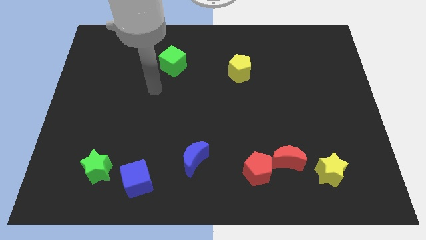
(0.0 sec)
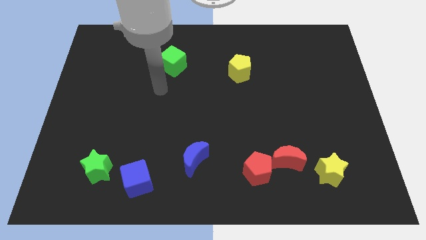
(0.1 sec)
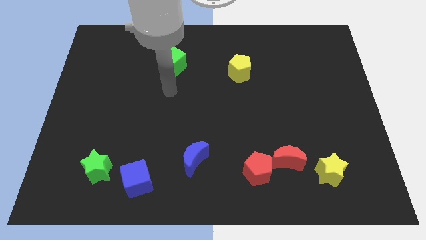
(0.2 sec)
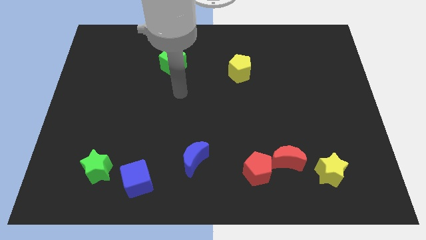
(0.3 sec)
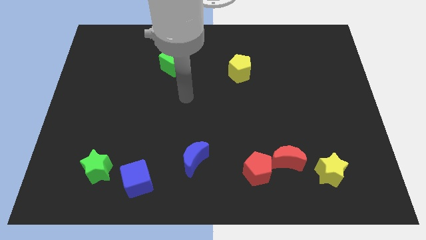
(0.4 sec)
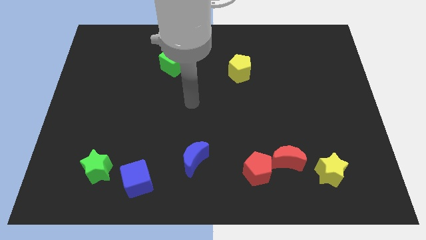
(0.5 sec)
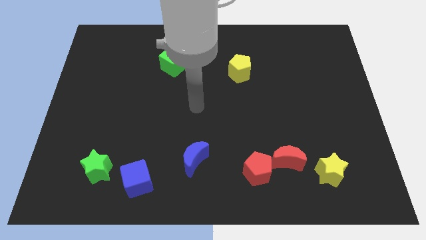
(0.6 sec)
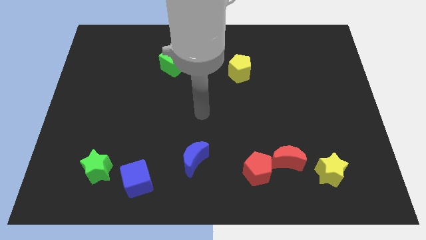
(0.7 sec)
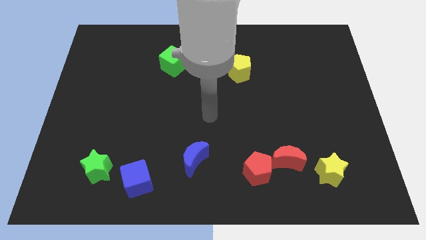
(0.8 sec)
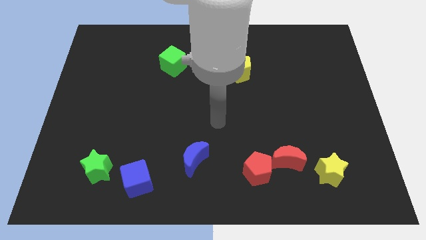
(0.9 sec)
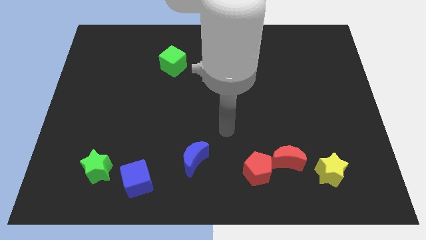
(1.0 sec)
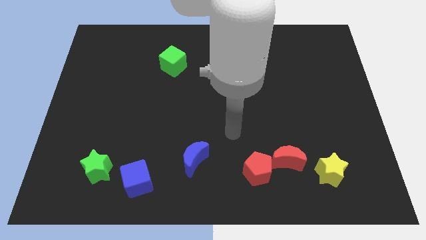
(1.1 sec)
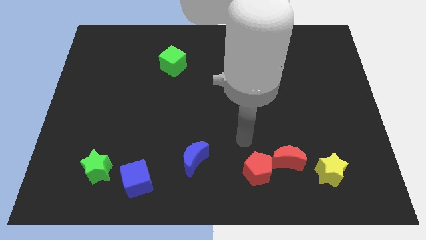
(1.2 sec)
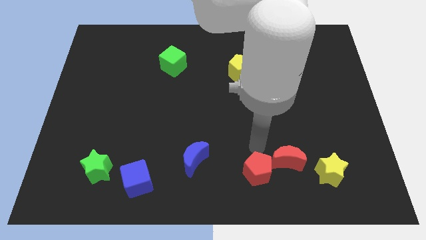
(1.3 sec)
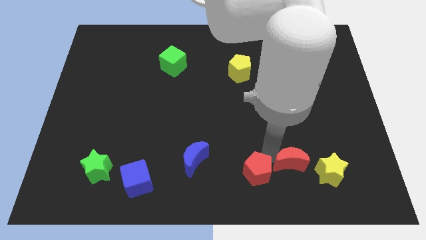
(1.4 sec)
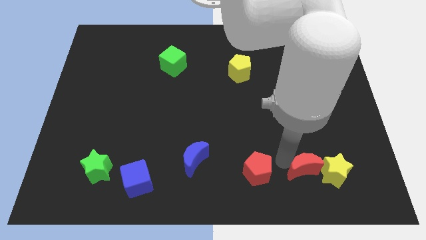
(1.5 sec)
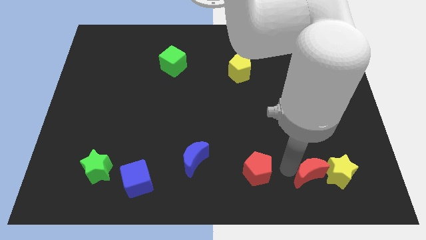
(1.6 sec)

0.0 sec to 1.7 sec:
move the red pentagon away from the red moon

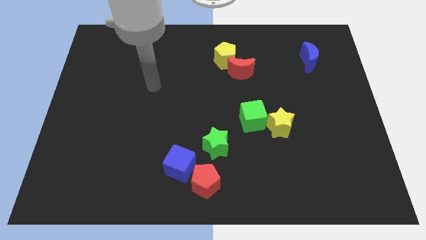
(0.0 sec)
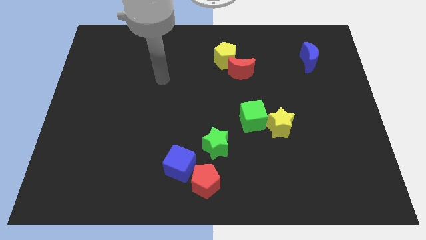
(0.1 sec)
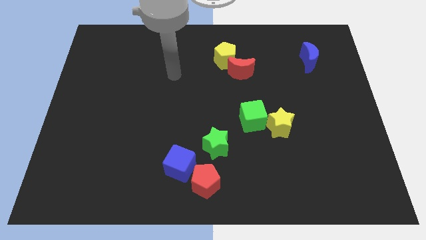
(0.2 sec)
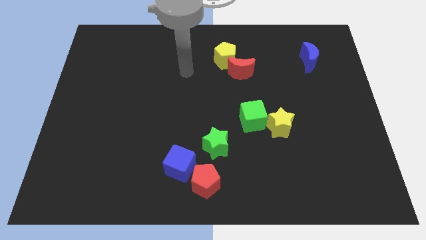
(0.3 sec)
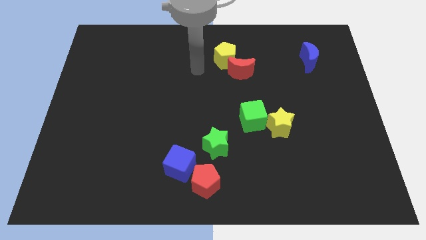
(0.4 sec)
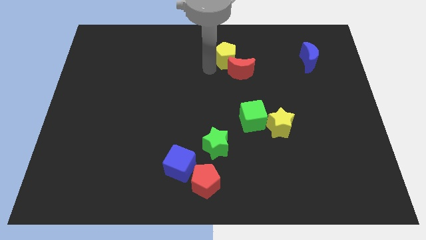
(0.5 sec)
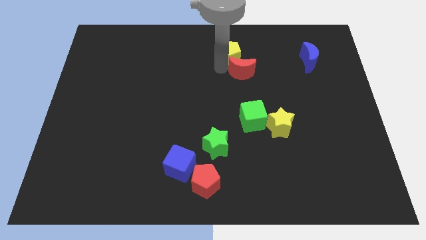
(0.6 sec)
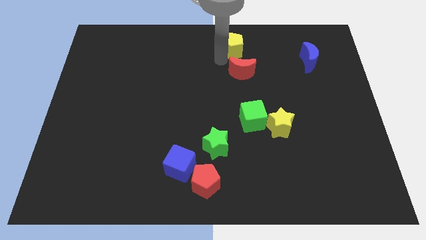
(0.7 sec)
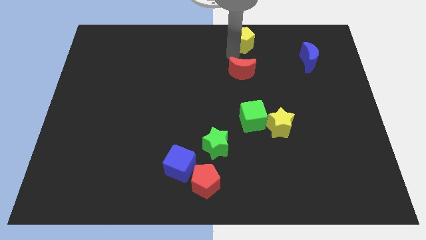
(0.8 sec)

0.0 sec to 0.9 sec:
separate the red moon from the yellow pentagon

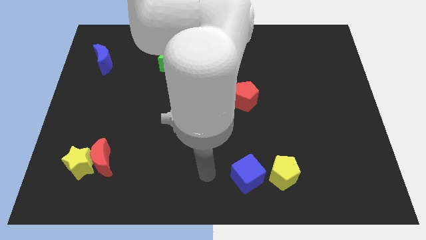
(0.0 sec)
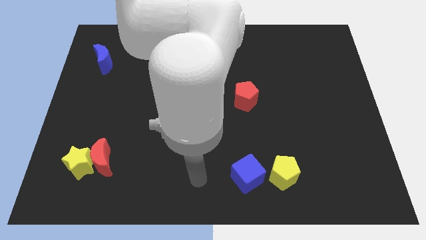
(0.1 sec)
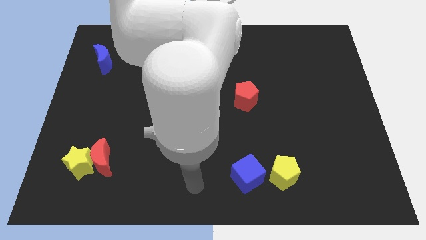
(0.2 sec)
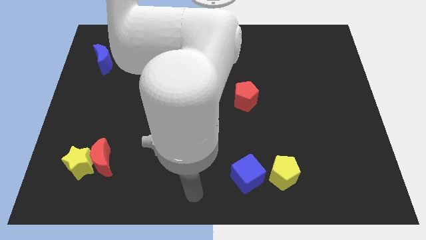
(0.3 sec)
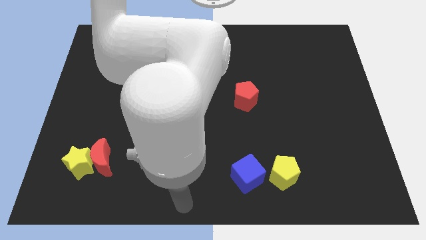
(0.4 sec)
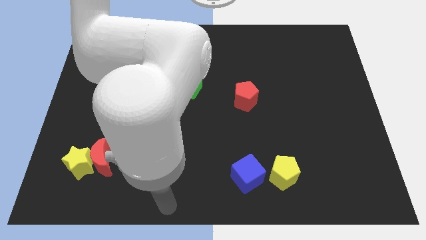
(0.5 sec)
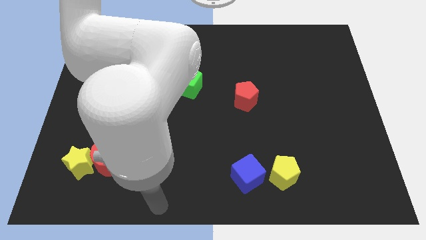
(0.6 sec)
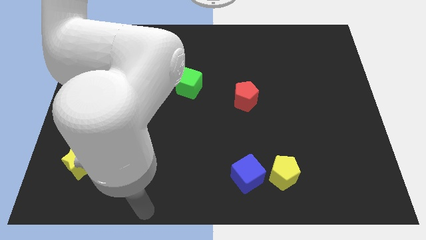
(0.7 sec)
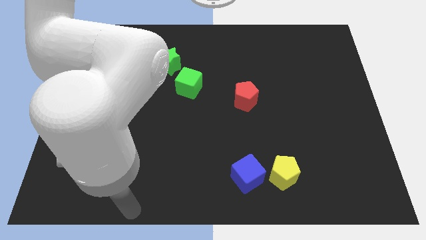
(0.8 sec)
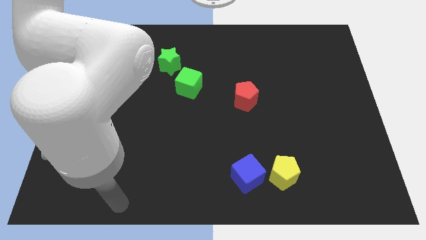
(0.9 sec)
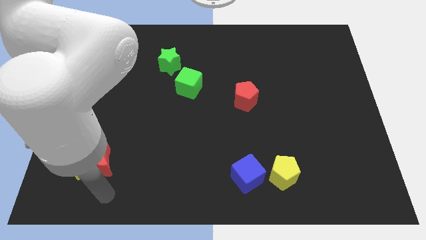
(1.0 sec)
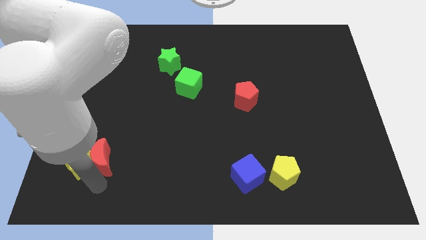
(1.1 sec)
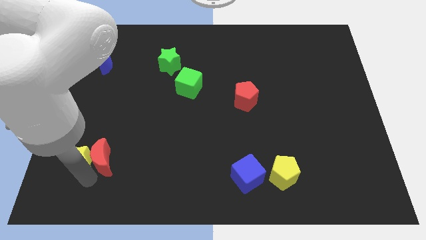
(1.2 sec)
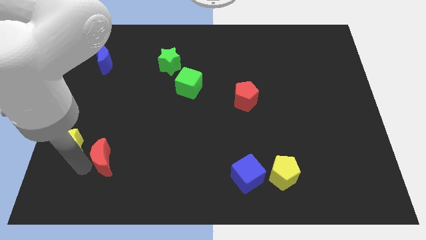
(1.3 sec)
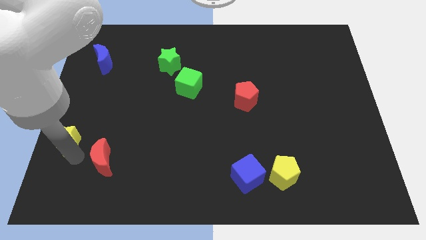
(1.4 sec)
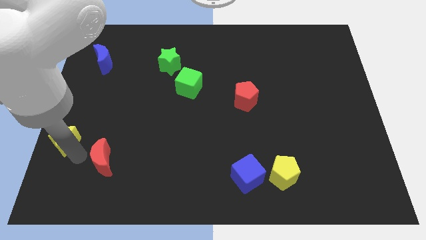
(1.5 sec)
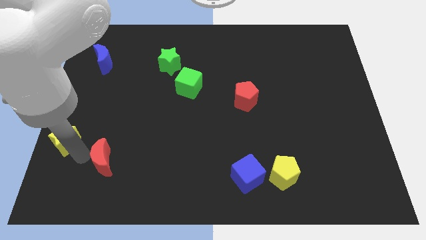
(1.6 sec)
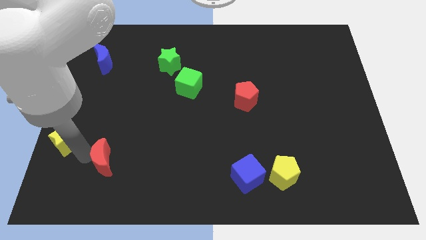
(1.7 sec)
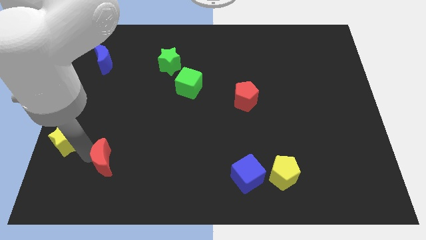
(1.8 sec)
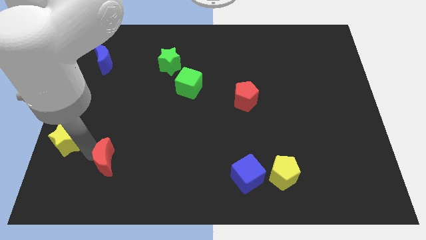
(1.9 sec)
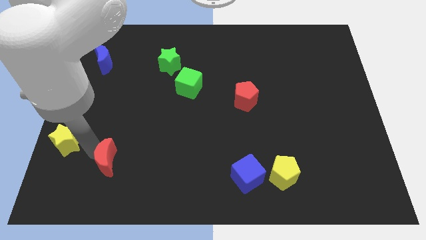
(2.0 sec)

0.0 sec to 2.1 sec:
separate the red moon from the yellow star

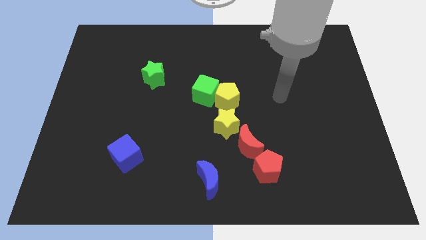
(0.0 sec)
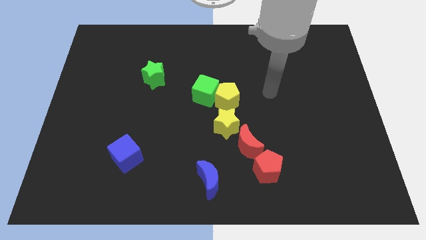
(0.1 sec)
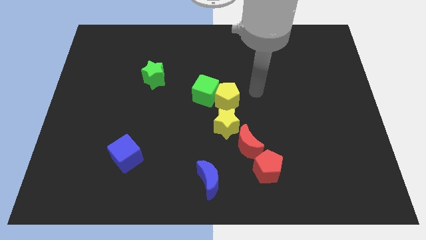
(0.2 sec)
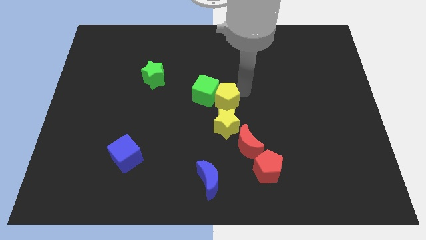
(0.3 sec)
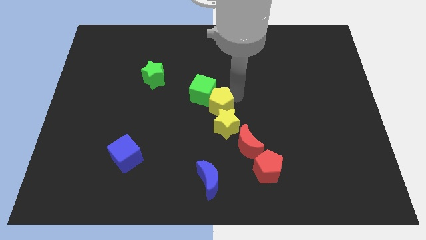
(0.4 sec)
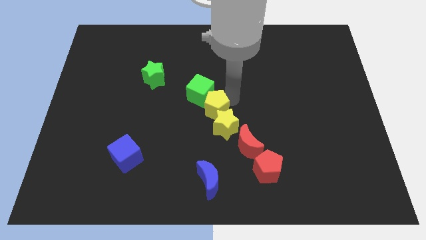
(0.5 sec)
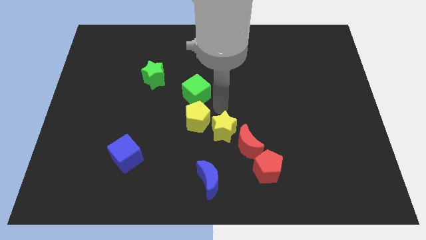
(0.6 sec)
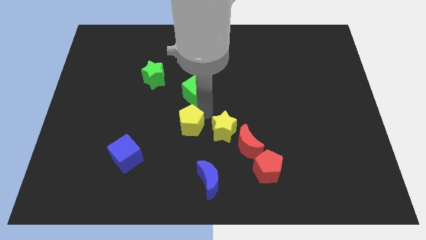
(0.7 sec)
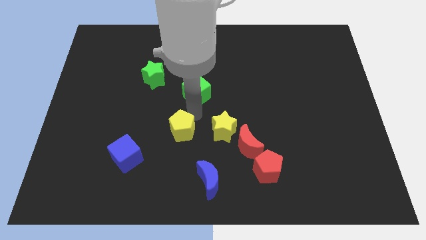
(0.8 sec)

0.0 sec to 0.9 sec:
pull the green cube apart from the yellow pentagon

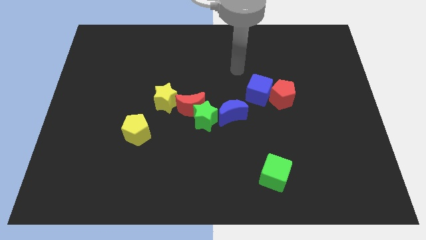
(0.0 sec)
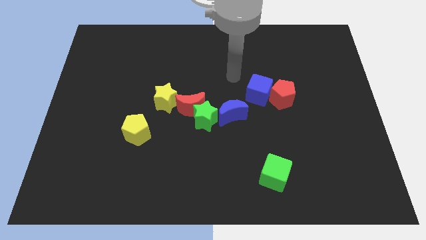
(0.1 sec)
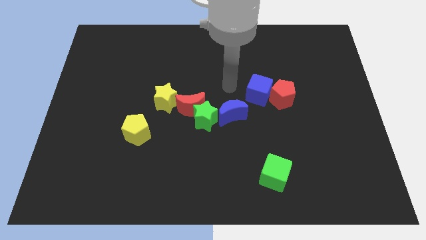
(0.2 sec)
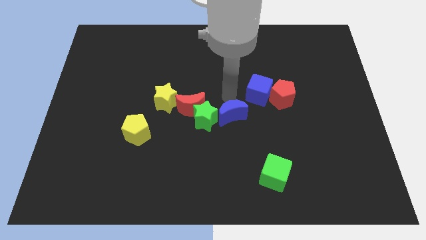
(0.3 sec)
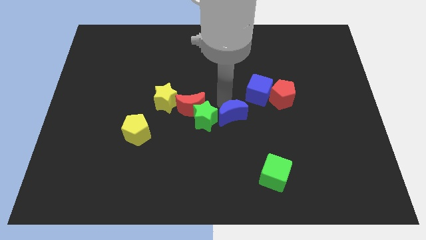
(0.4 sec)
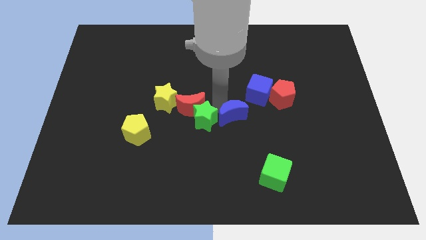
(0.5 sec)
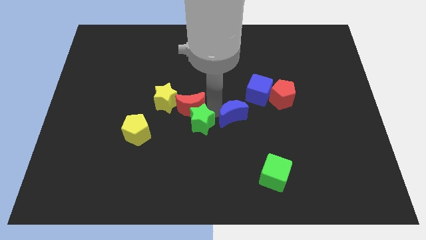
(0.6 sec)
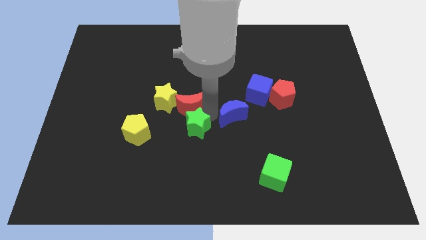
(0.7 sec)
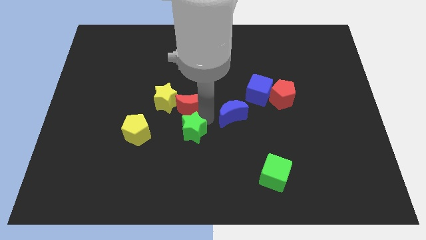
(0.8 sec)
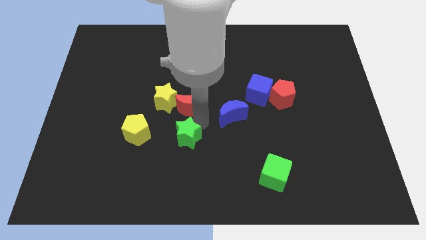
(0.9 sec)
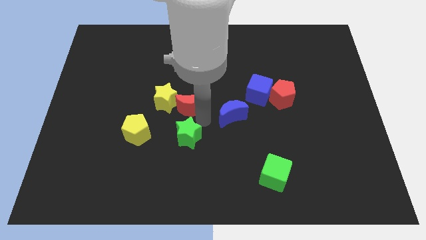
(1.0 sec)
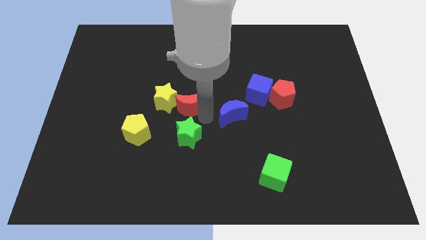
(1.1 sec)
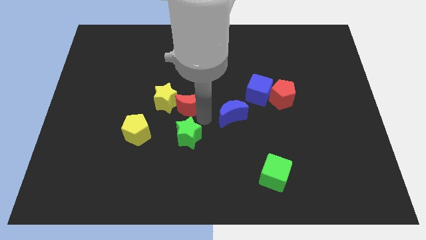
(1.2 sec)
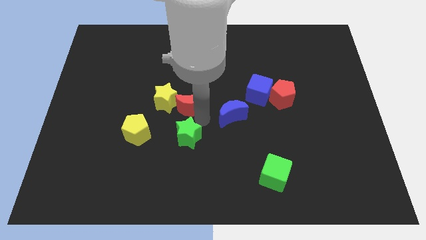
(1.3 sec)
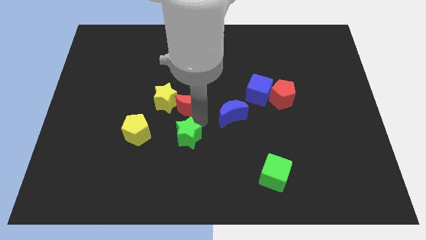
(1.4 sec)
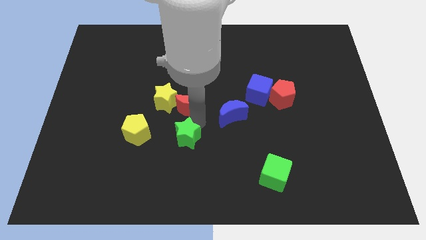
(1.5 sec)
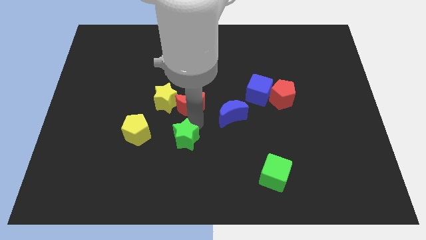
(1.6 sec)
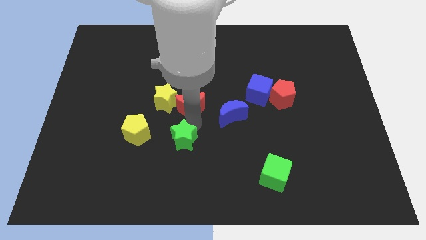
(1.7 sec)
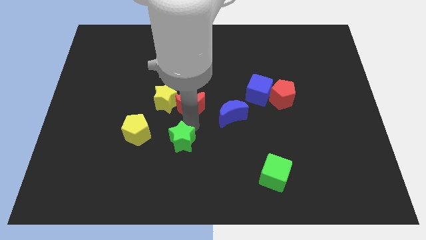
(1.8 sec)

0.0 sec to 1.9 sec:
move the green star away from the red moon and blue moon

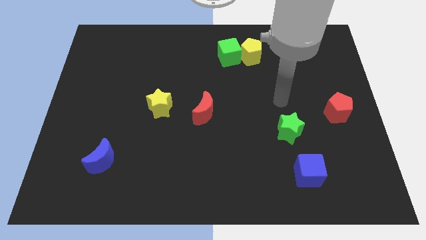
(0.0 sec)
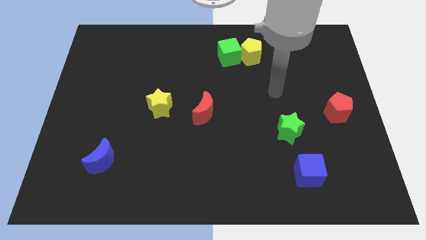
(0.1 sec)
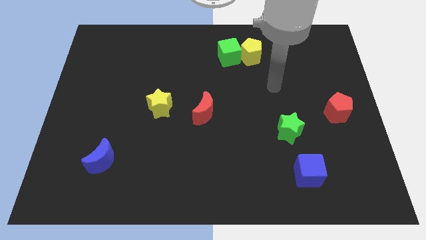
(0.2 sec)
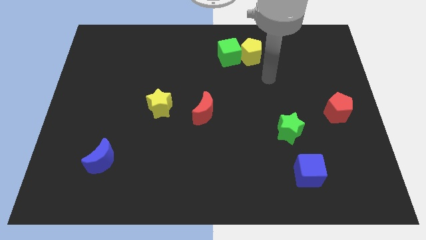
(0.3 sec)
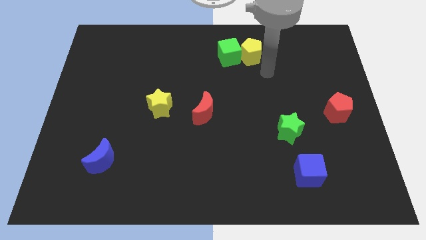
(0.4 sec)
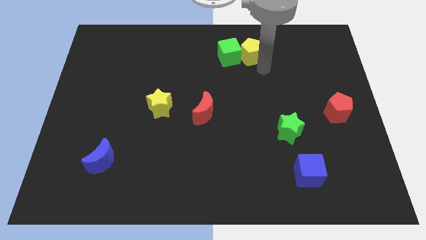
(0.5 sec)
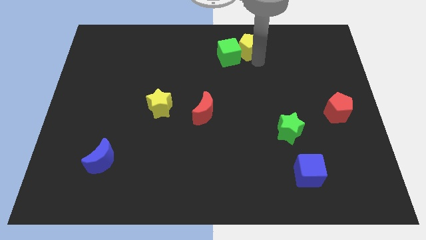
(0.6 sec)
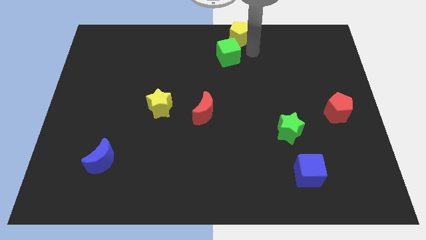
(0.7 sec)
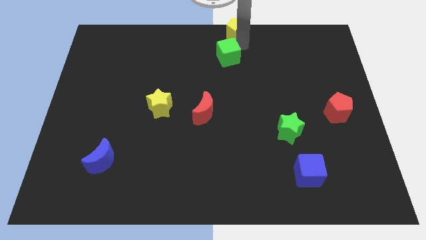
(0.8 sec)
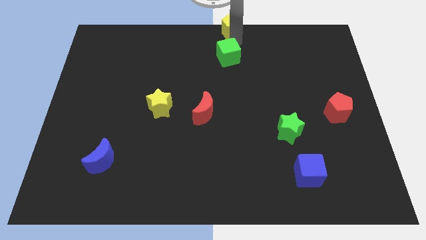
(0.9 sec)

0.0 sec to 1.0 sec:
move the green cube away from the yellow pentagon

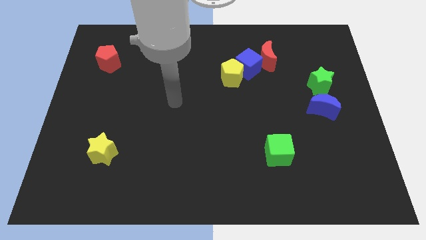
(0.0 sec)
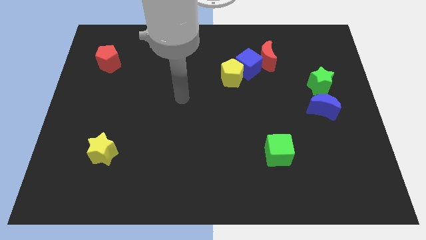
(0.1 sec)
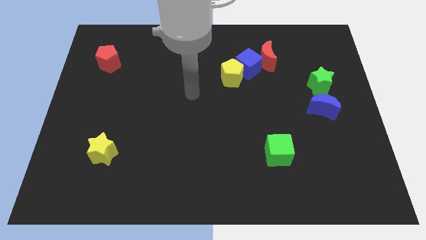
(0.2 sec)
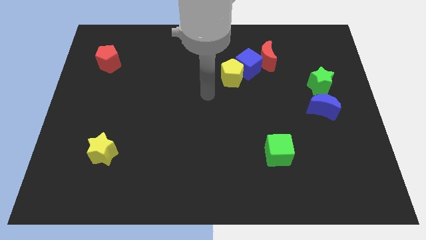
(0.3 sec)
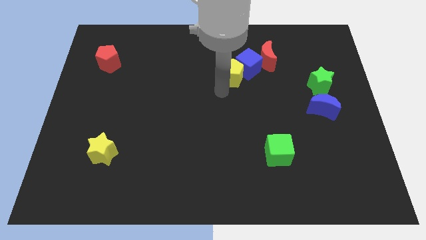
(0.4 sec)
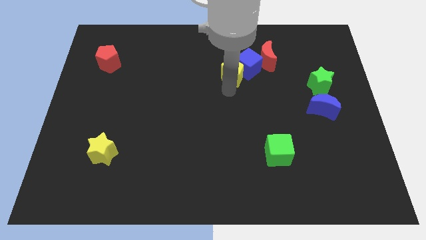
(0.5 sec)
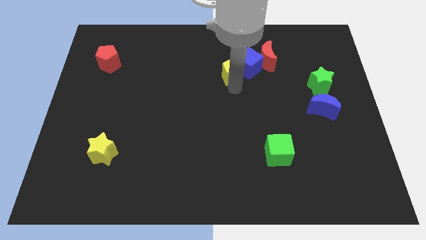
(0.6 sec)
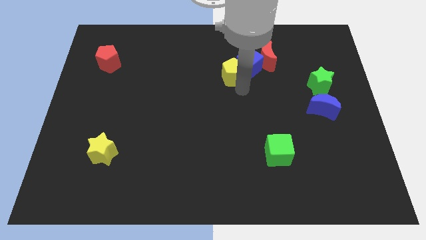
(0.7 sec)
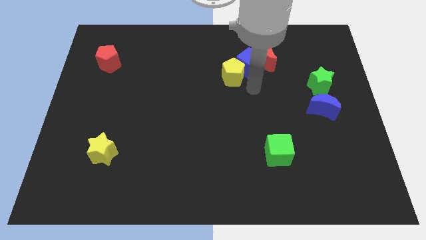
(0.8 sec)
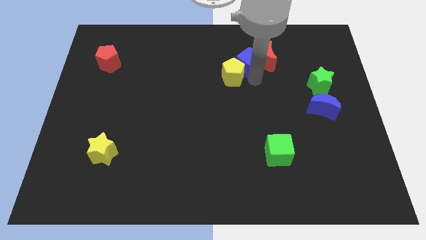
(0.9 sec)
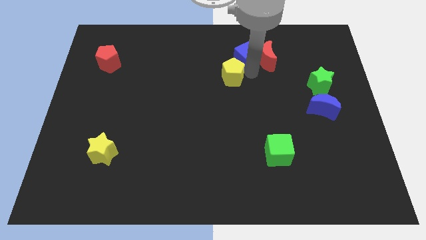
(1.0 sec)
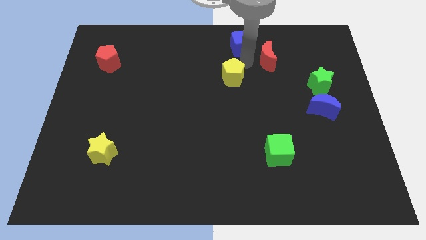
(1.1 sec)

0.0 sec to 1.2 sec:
pull the yellow pentagon apart from the blue cube
